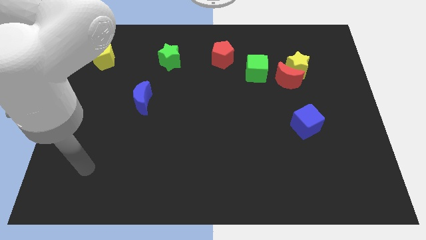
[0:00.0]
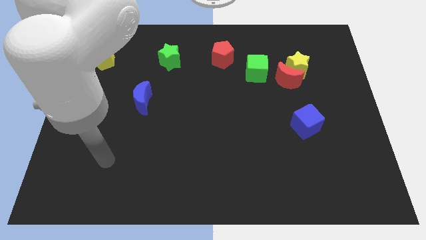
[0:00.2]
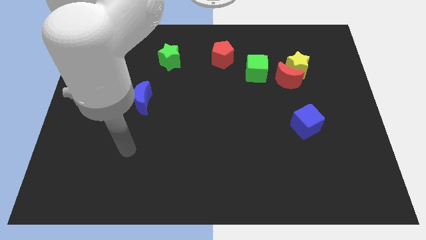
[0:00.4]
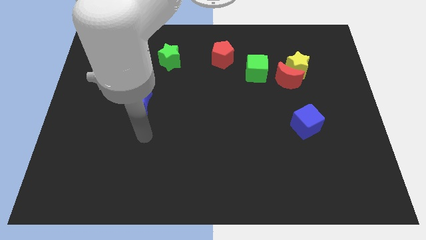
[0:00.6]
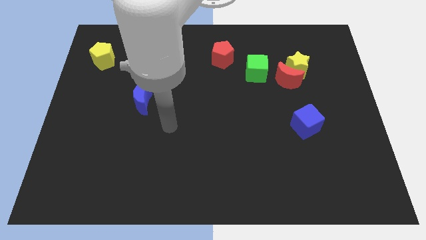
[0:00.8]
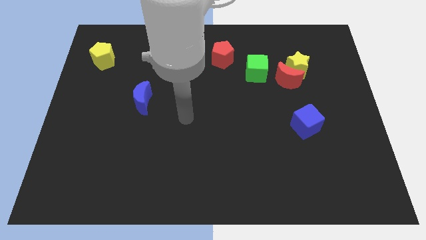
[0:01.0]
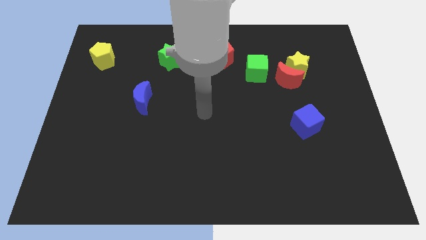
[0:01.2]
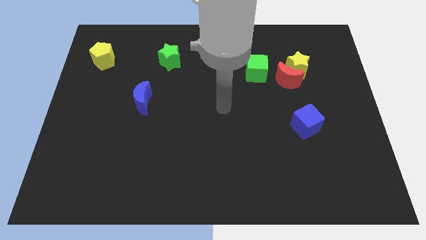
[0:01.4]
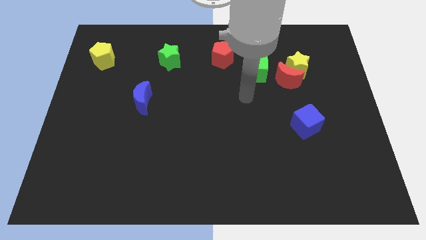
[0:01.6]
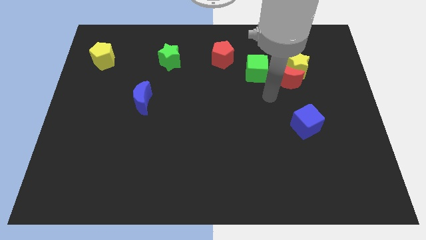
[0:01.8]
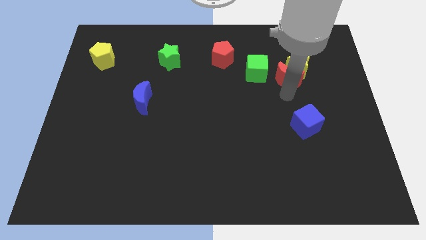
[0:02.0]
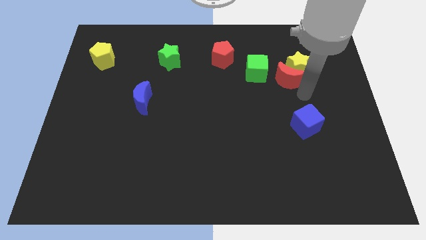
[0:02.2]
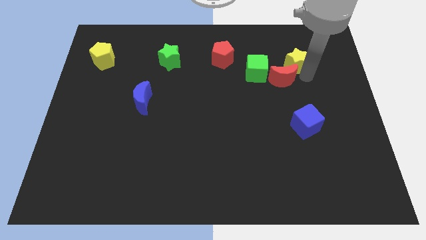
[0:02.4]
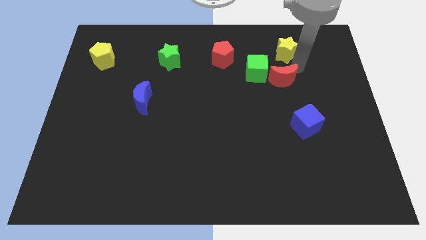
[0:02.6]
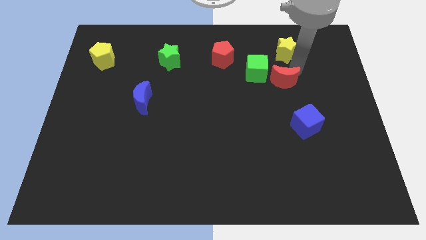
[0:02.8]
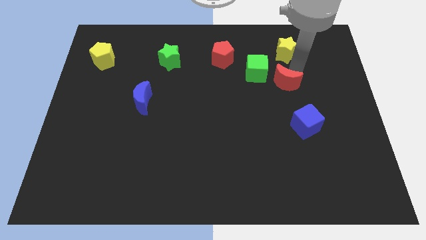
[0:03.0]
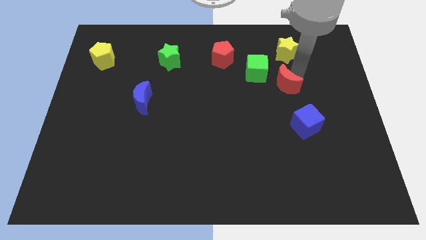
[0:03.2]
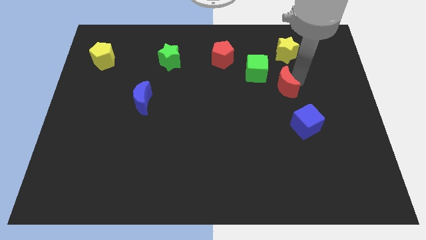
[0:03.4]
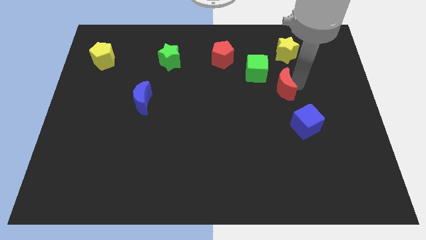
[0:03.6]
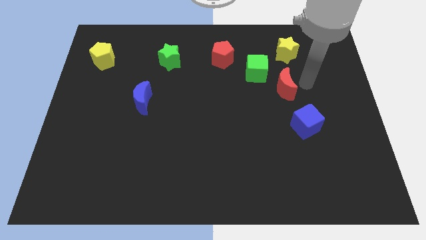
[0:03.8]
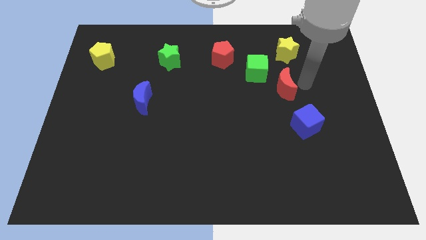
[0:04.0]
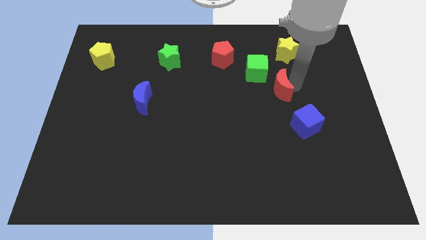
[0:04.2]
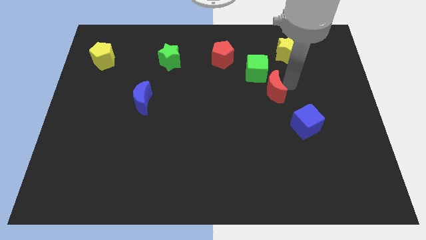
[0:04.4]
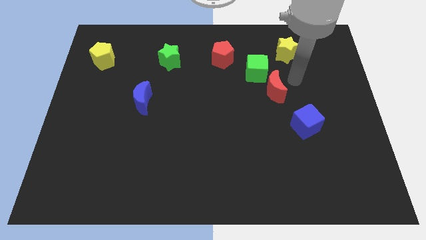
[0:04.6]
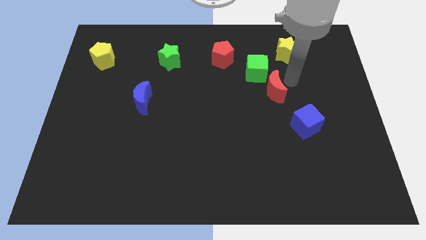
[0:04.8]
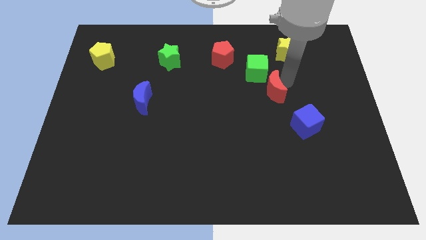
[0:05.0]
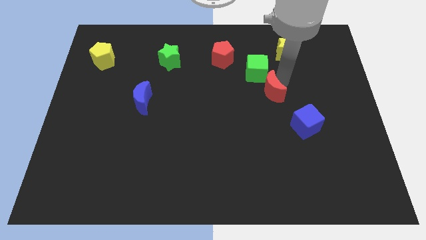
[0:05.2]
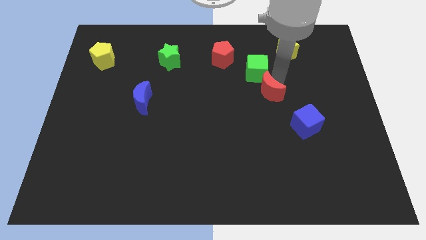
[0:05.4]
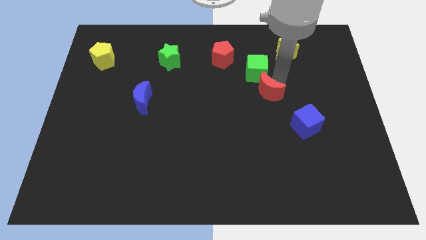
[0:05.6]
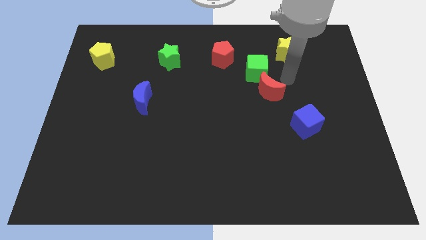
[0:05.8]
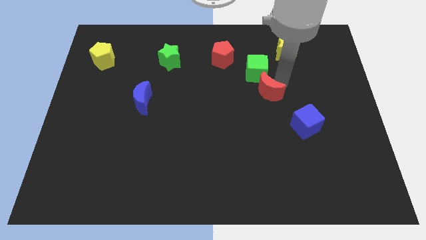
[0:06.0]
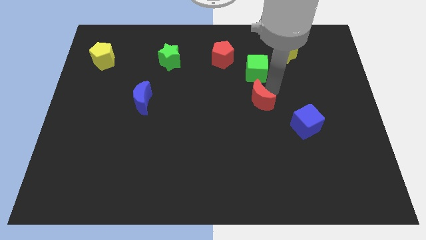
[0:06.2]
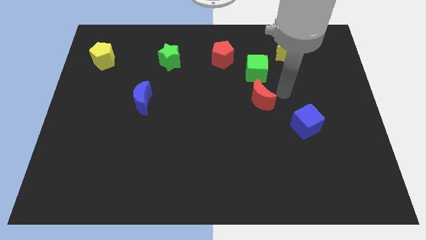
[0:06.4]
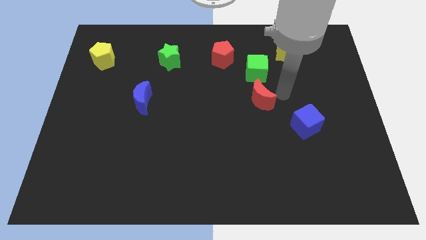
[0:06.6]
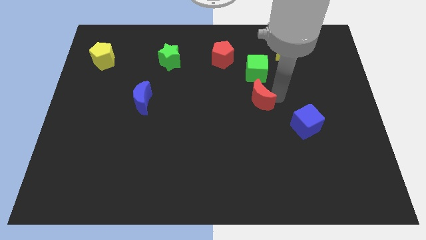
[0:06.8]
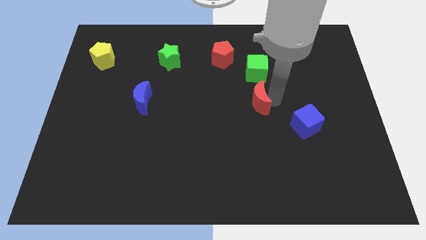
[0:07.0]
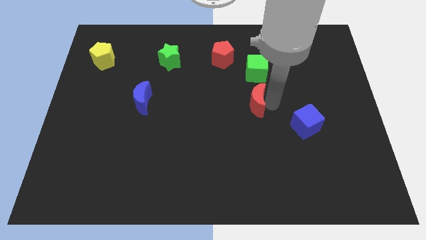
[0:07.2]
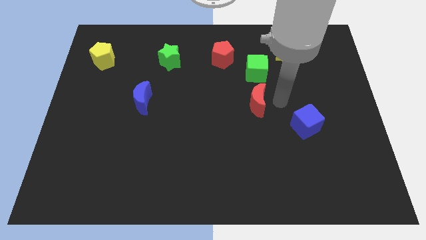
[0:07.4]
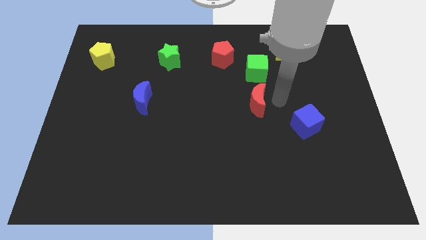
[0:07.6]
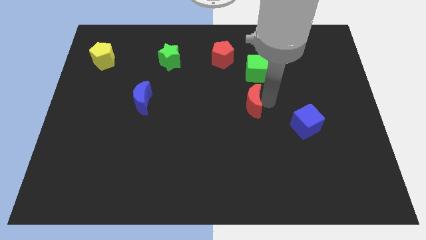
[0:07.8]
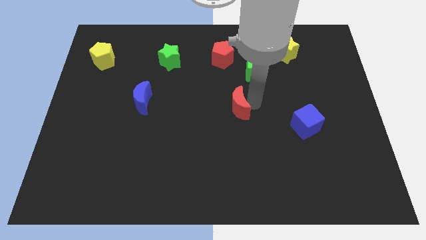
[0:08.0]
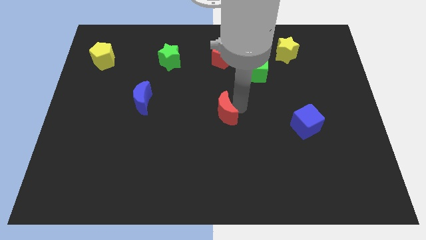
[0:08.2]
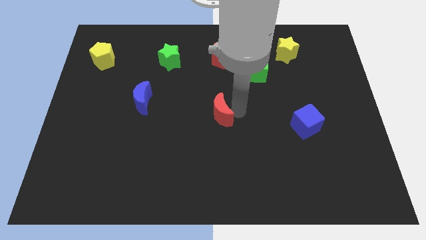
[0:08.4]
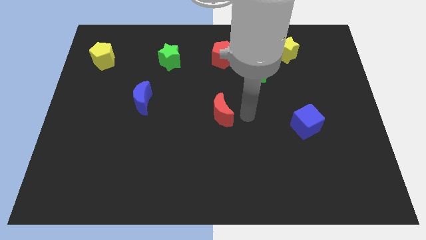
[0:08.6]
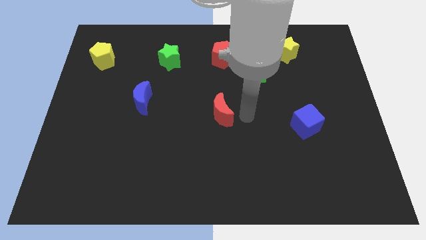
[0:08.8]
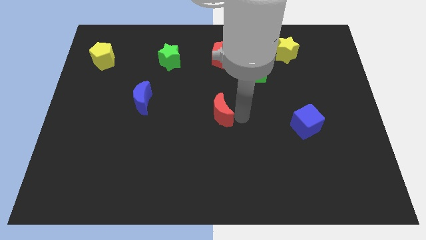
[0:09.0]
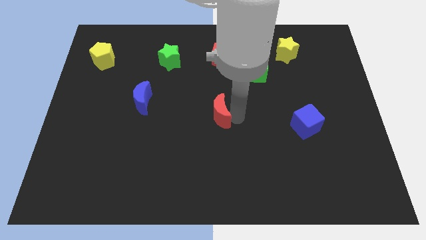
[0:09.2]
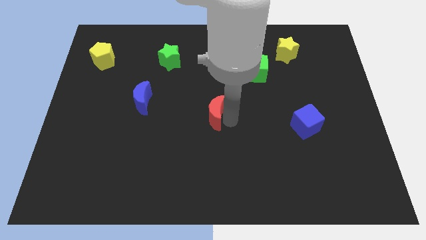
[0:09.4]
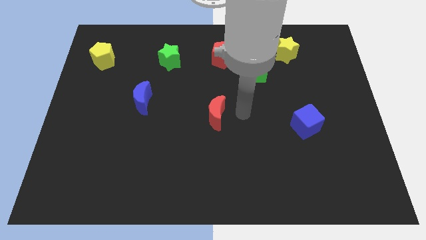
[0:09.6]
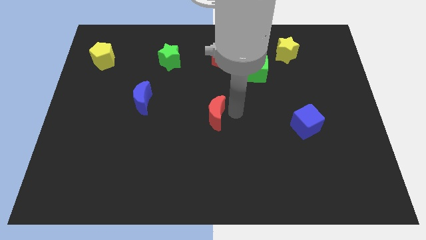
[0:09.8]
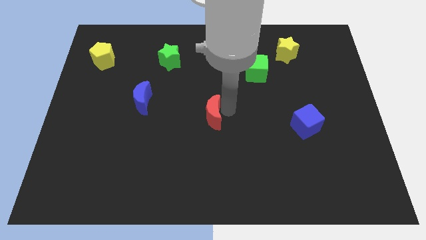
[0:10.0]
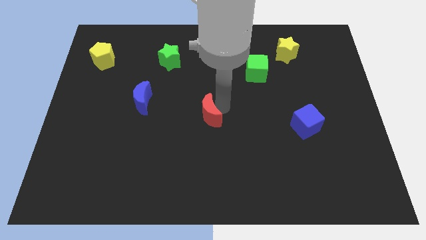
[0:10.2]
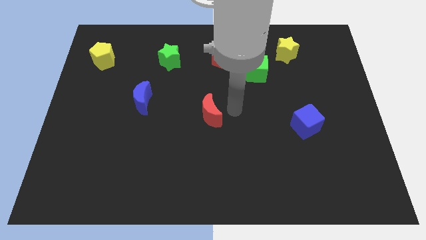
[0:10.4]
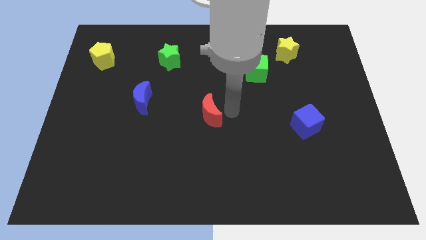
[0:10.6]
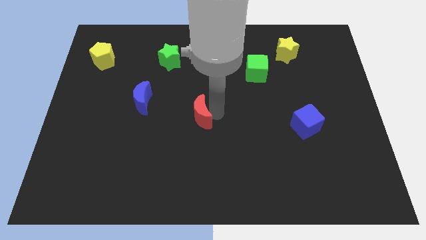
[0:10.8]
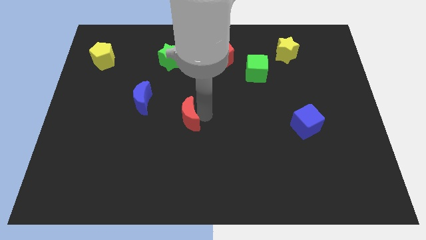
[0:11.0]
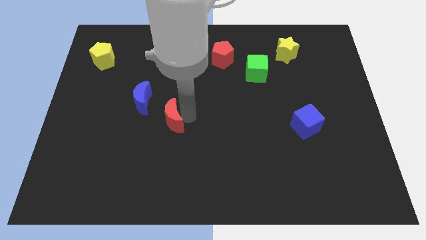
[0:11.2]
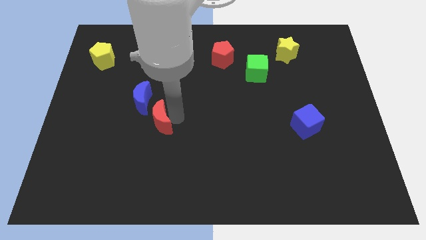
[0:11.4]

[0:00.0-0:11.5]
put the red moon below the blue moon

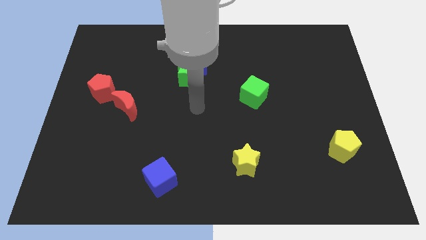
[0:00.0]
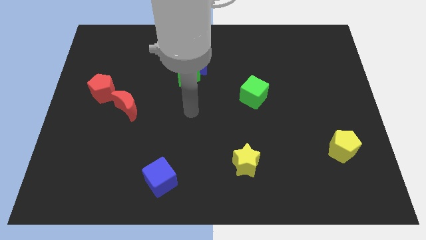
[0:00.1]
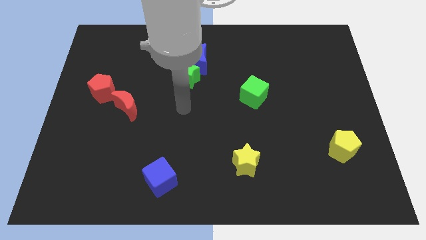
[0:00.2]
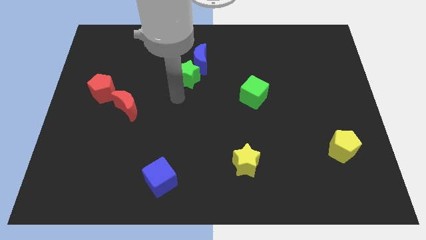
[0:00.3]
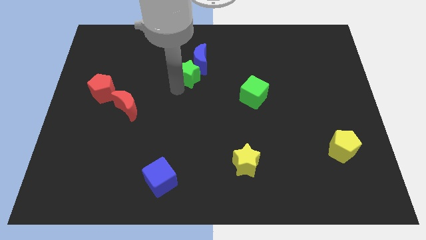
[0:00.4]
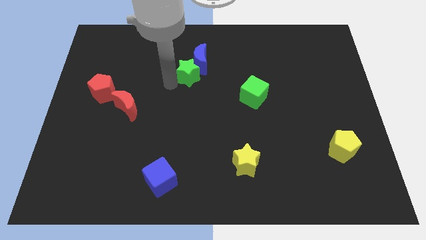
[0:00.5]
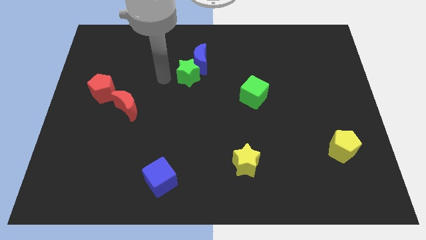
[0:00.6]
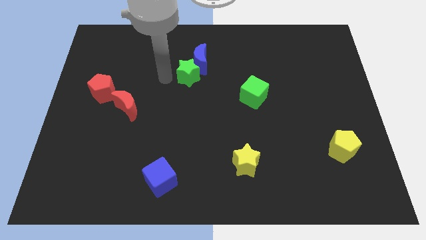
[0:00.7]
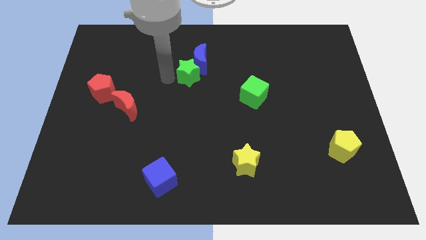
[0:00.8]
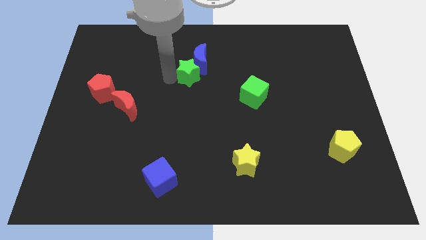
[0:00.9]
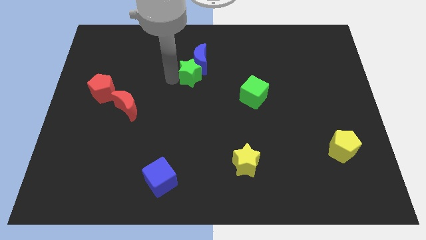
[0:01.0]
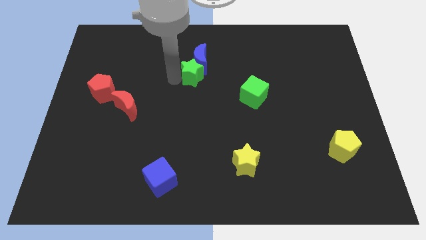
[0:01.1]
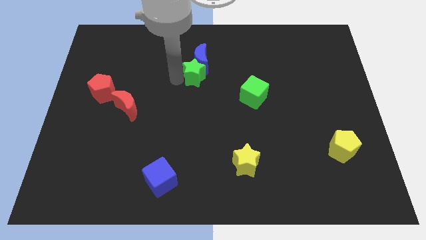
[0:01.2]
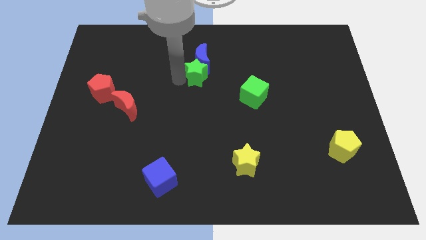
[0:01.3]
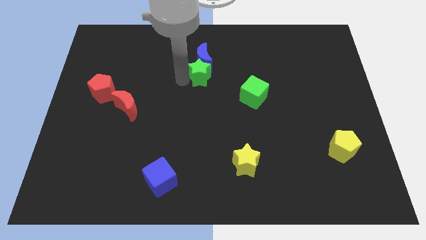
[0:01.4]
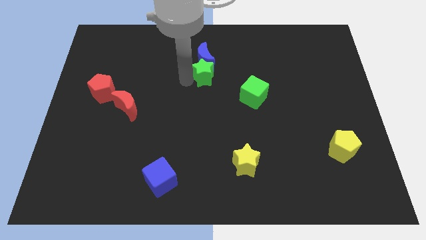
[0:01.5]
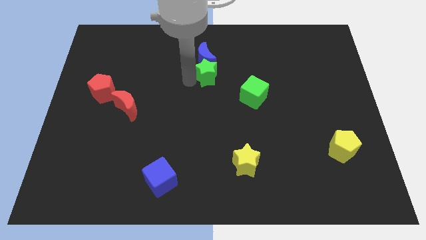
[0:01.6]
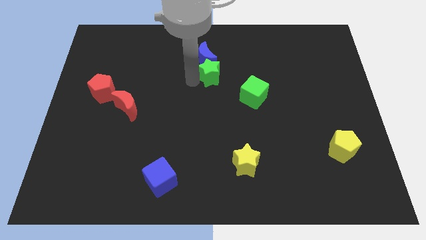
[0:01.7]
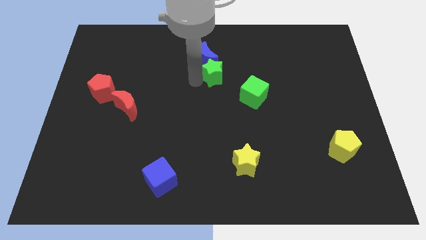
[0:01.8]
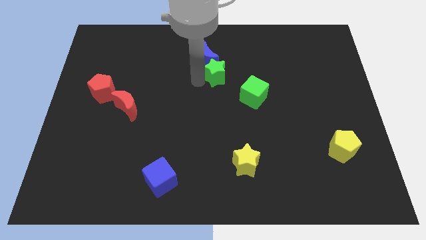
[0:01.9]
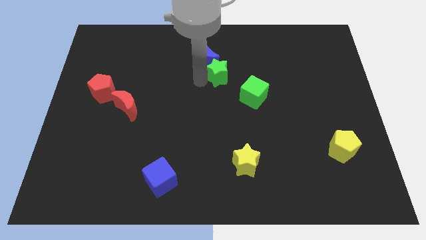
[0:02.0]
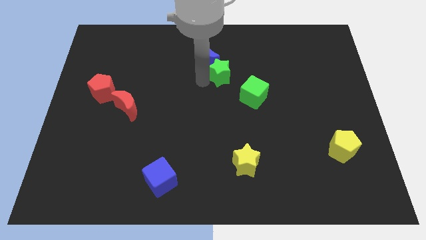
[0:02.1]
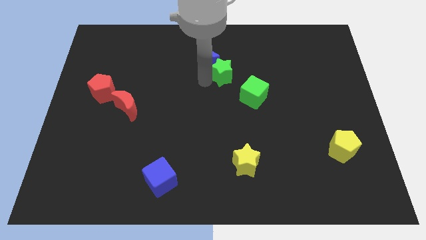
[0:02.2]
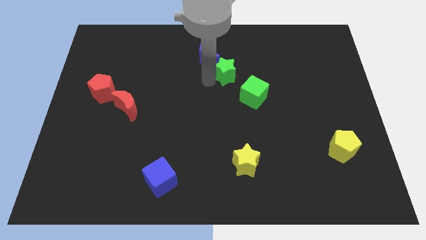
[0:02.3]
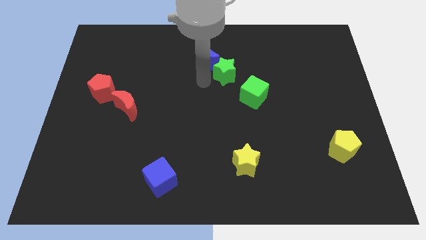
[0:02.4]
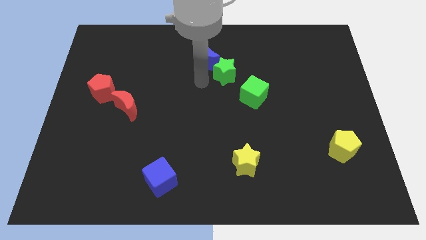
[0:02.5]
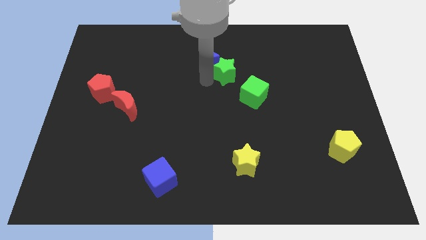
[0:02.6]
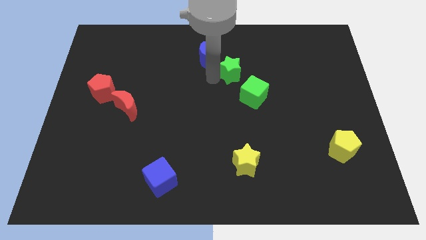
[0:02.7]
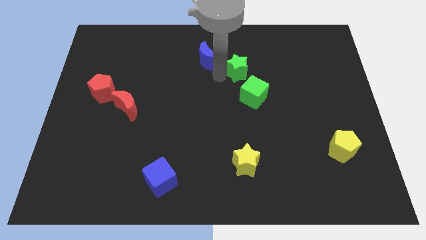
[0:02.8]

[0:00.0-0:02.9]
move the green star to the top of the green cube
